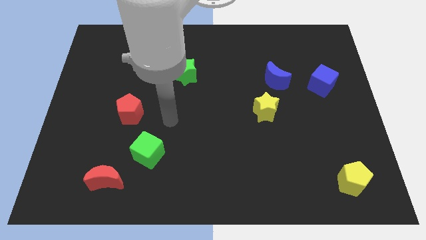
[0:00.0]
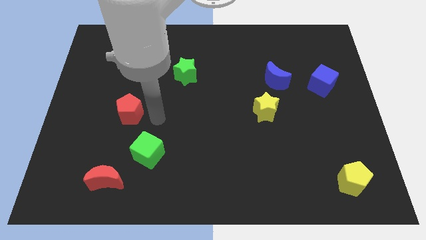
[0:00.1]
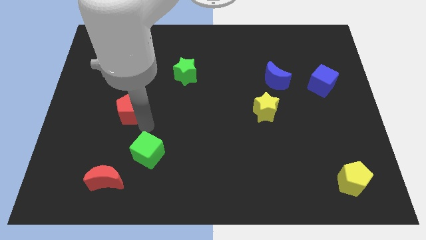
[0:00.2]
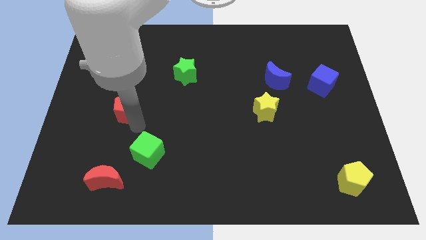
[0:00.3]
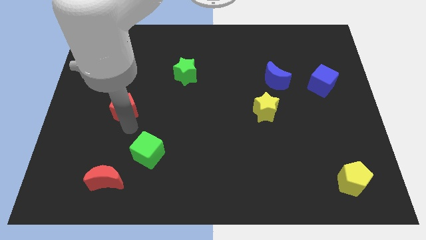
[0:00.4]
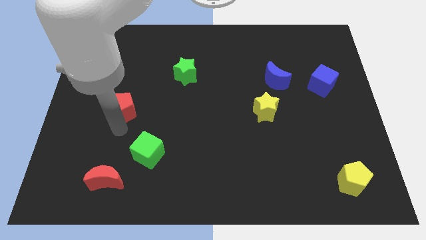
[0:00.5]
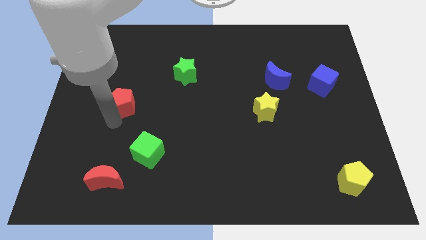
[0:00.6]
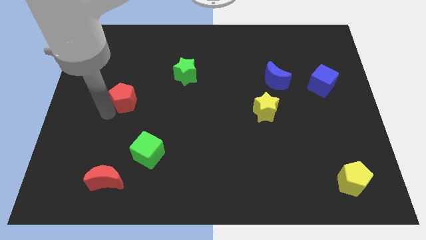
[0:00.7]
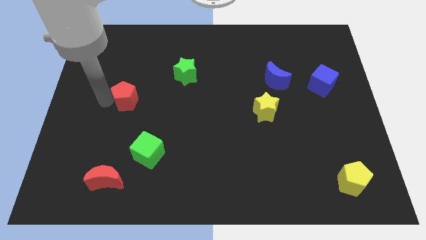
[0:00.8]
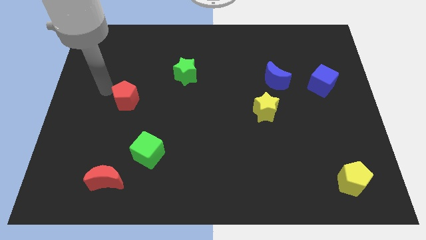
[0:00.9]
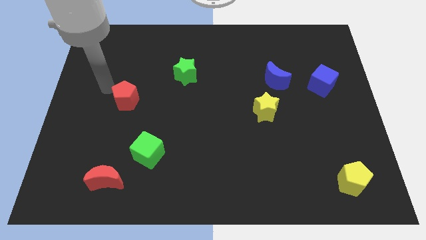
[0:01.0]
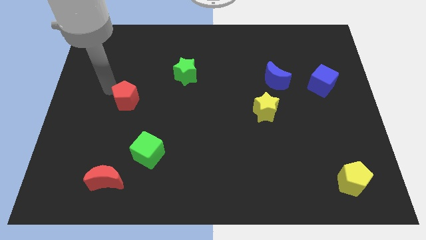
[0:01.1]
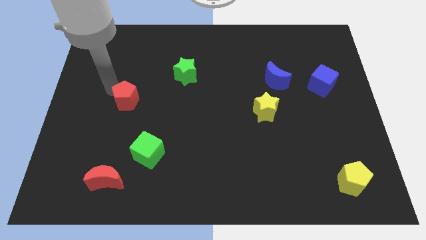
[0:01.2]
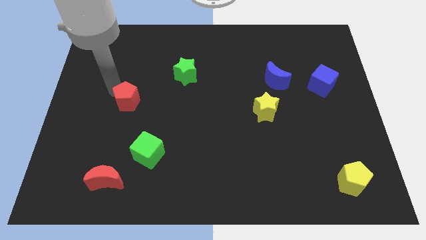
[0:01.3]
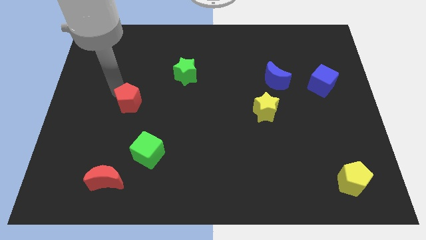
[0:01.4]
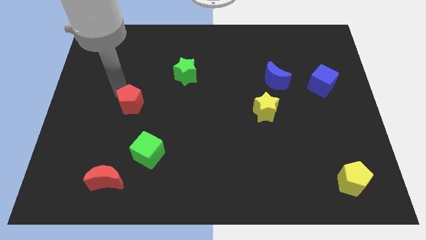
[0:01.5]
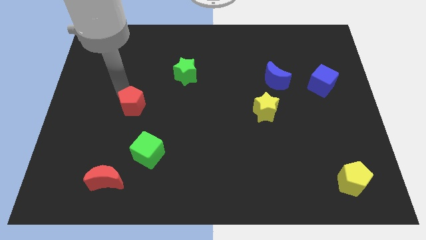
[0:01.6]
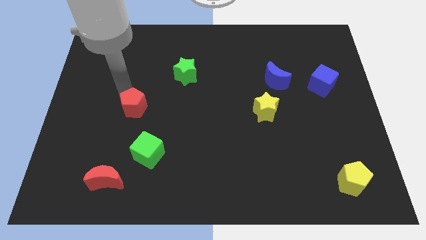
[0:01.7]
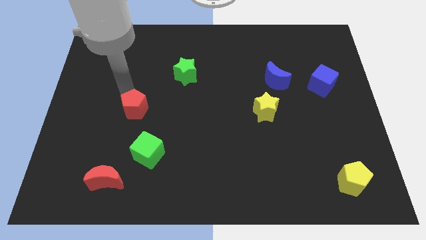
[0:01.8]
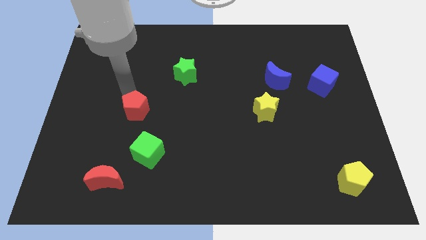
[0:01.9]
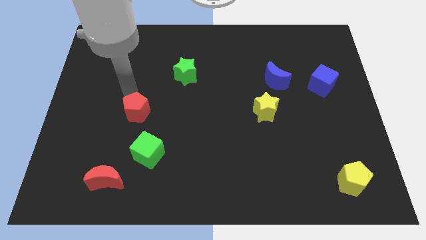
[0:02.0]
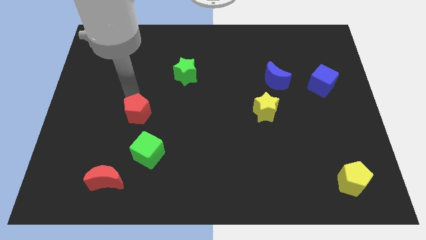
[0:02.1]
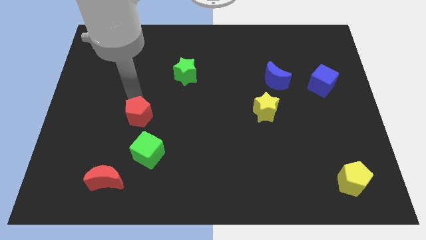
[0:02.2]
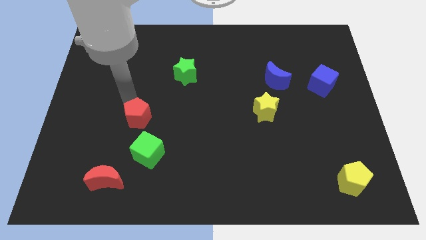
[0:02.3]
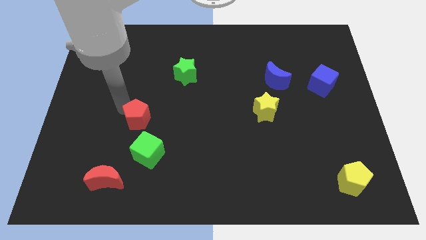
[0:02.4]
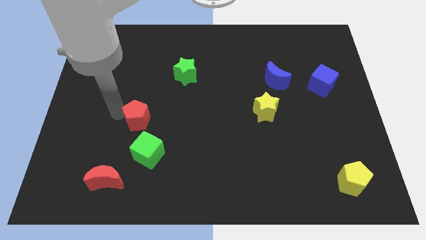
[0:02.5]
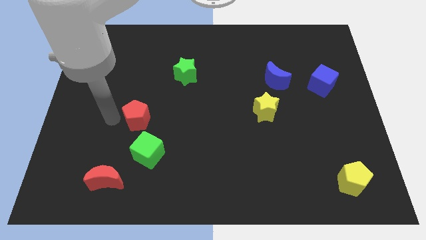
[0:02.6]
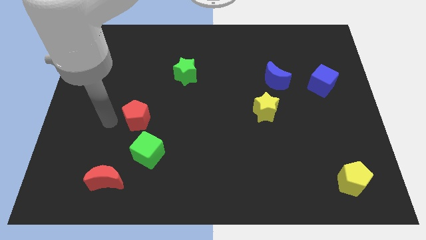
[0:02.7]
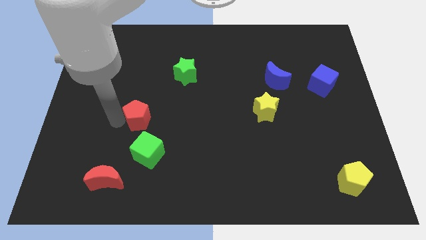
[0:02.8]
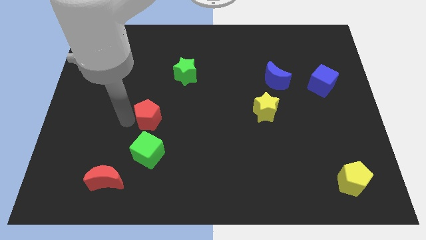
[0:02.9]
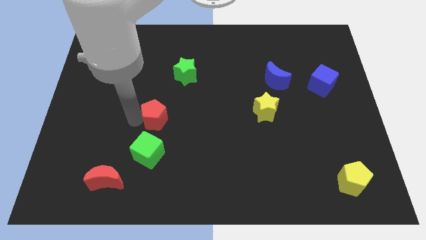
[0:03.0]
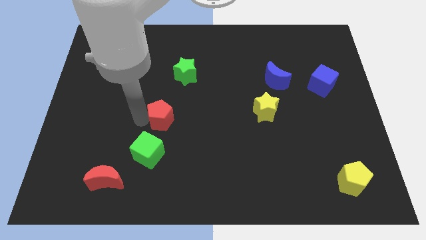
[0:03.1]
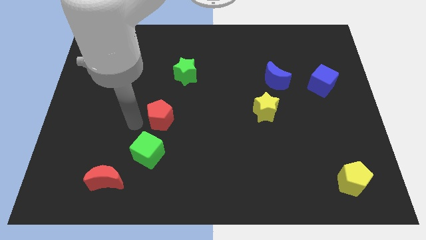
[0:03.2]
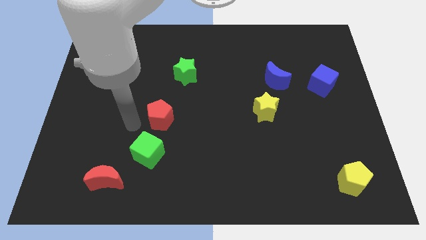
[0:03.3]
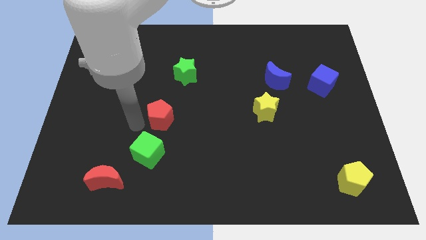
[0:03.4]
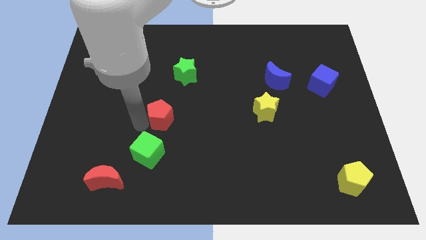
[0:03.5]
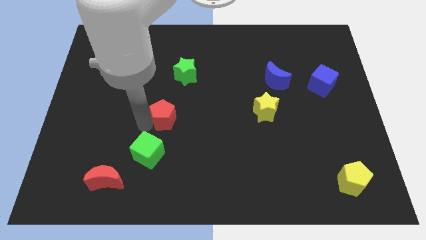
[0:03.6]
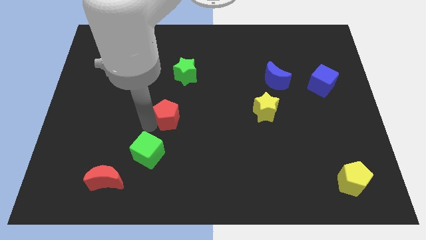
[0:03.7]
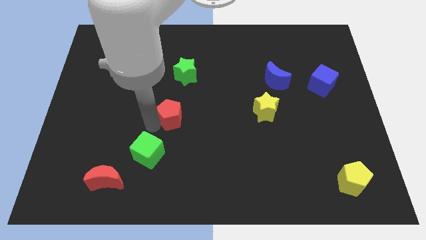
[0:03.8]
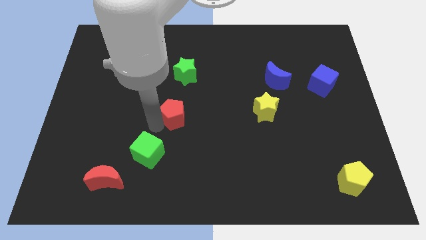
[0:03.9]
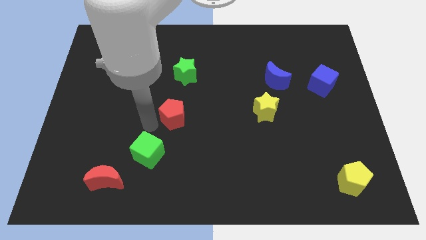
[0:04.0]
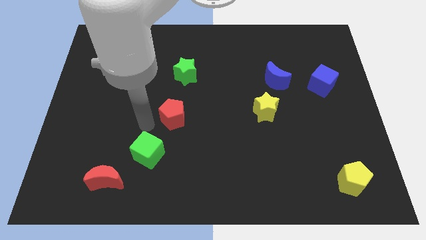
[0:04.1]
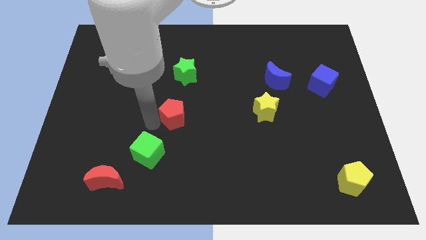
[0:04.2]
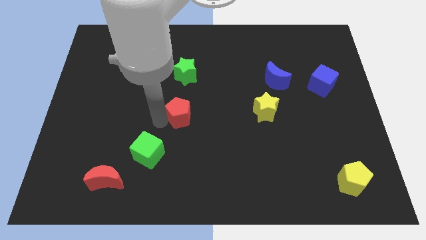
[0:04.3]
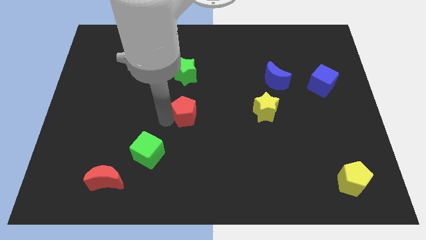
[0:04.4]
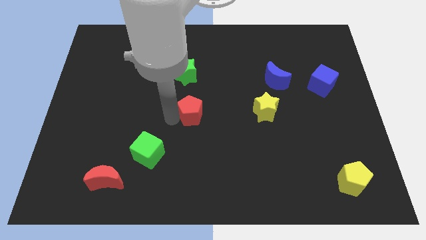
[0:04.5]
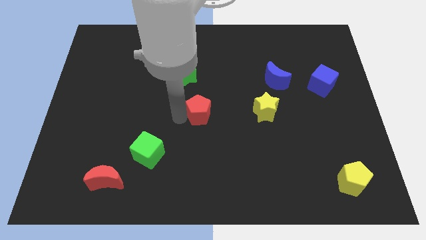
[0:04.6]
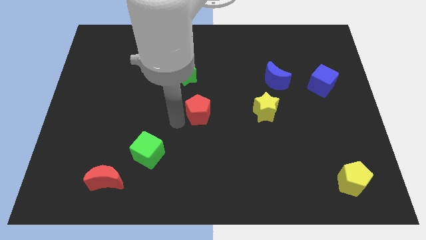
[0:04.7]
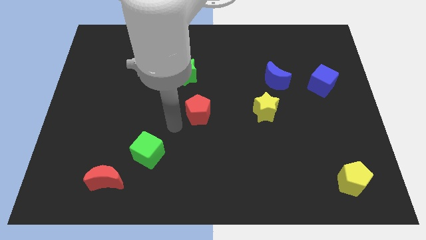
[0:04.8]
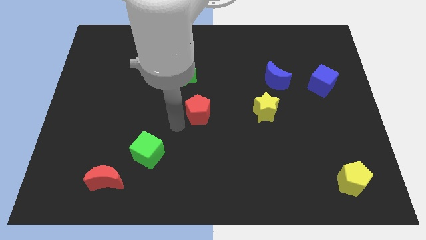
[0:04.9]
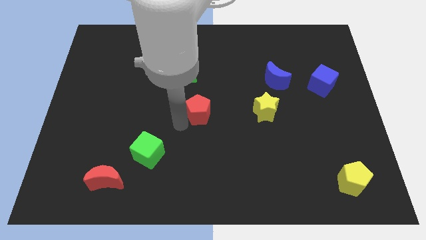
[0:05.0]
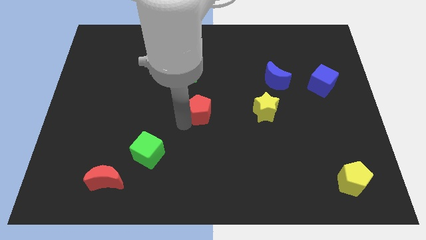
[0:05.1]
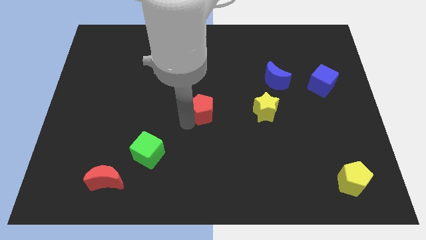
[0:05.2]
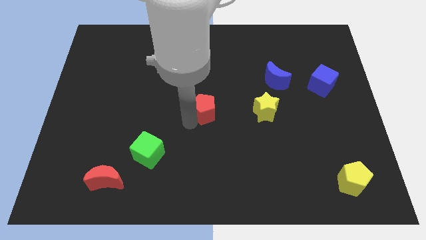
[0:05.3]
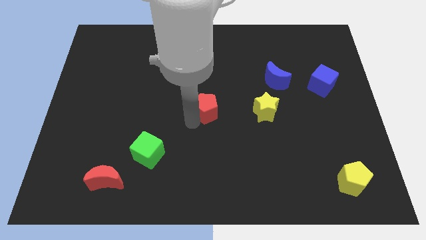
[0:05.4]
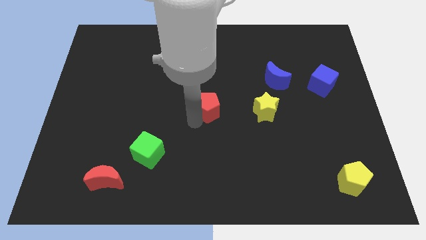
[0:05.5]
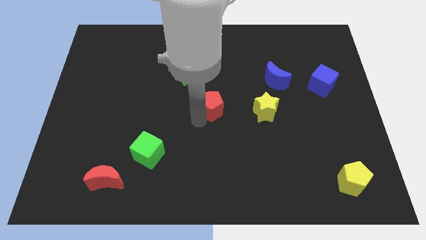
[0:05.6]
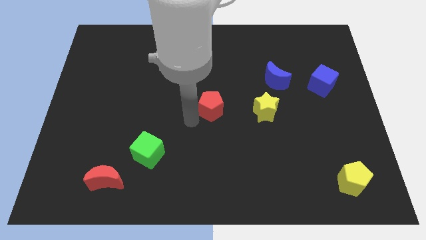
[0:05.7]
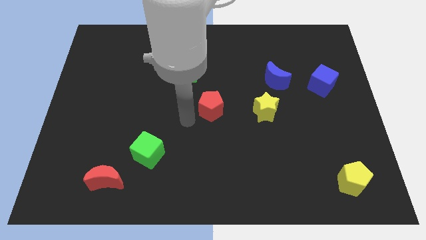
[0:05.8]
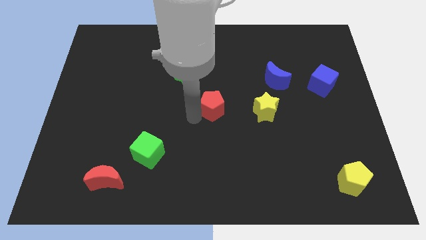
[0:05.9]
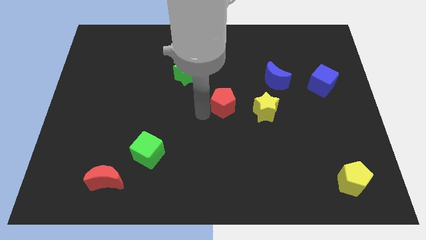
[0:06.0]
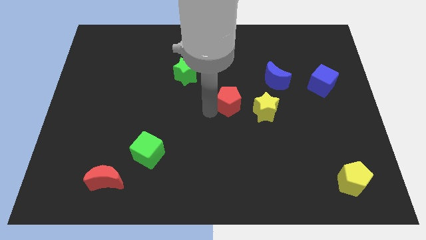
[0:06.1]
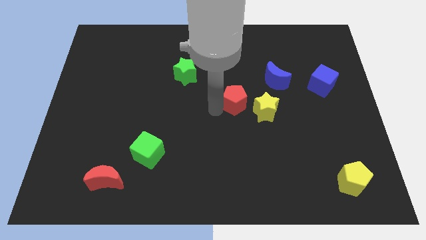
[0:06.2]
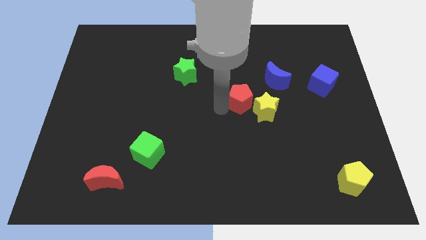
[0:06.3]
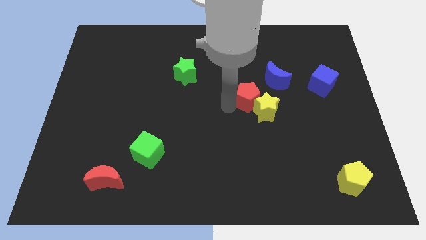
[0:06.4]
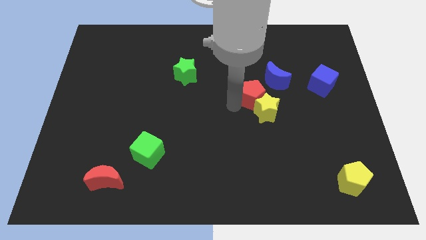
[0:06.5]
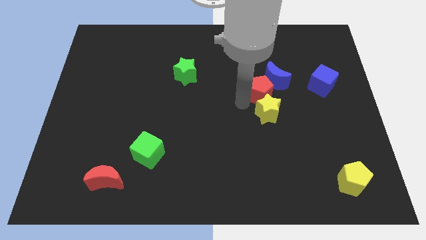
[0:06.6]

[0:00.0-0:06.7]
move the red pentagon next to the blue moon

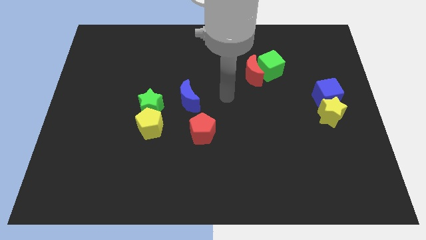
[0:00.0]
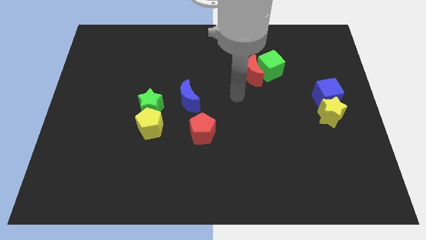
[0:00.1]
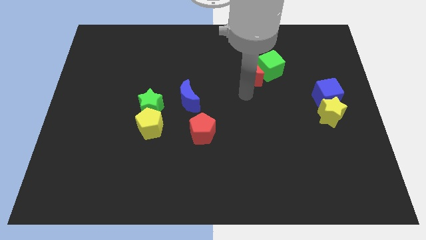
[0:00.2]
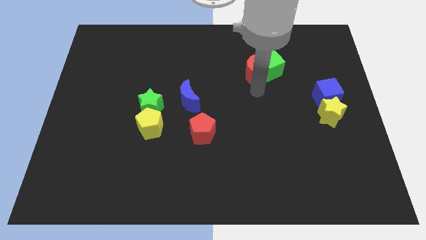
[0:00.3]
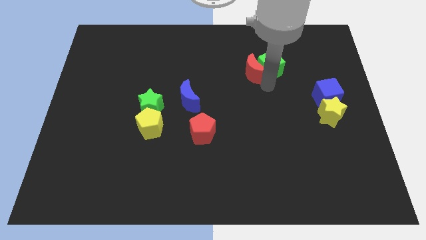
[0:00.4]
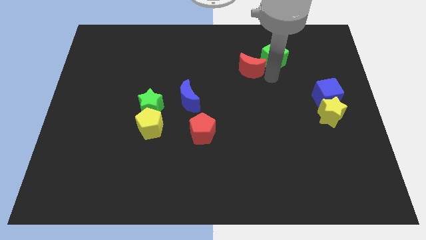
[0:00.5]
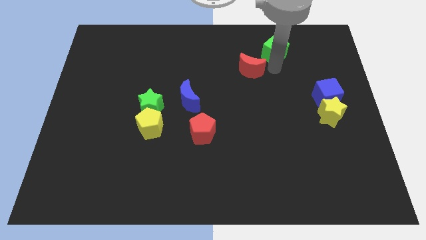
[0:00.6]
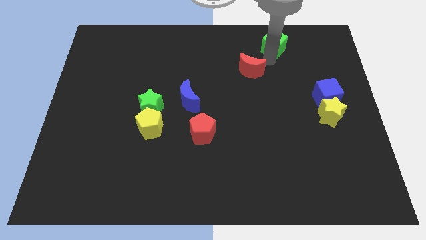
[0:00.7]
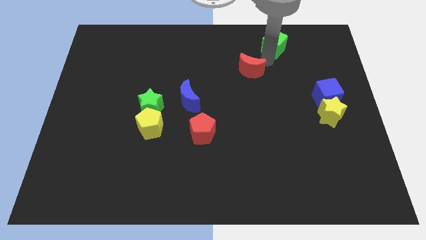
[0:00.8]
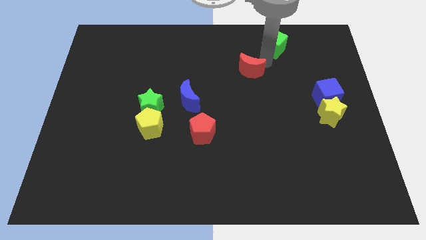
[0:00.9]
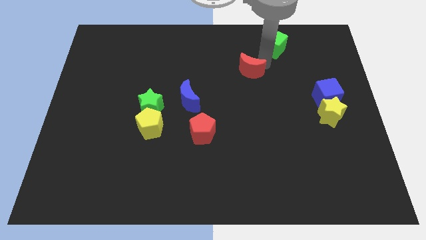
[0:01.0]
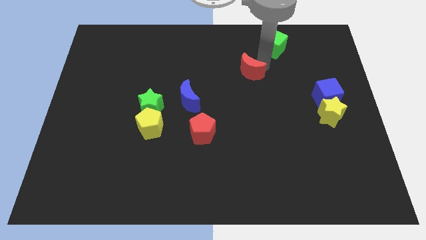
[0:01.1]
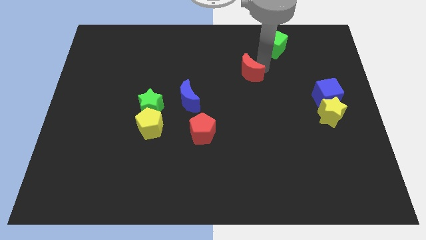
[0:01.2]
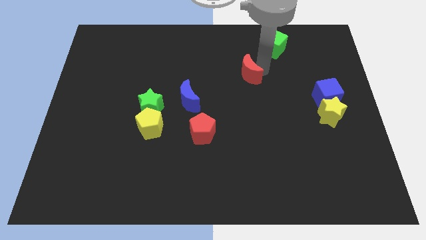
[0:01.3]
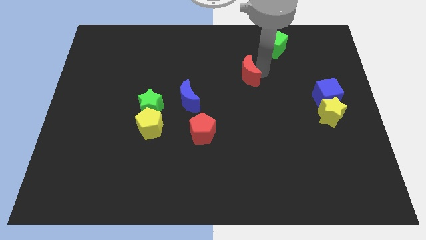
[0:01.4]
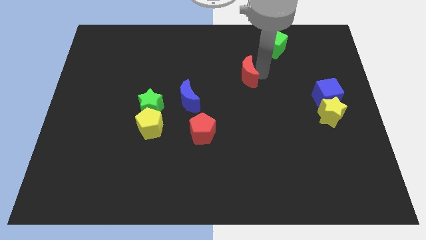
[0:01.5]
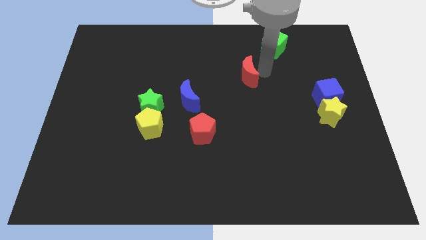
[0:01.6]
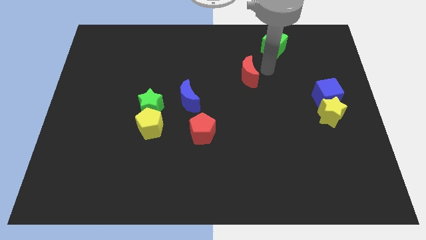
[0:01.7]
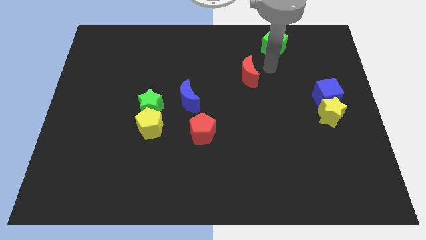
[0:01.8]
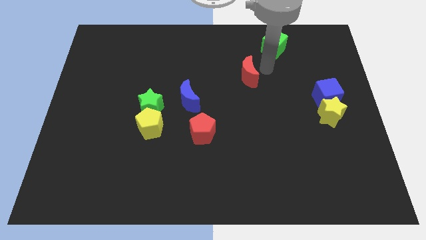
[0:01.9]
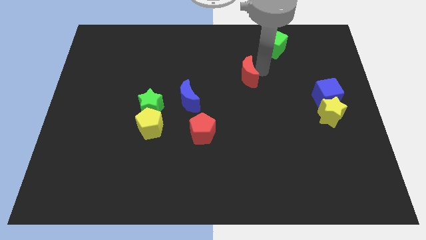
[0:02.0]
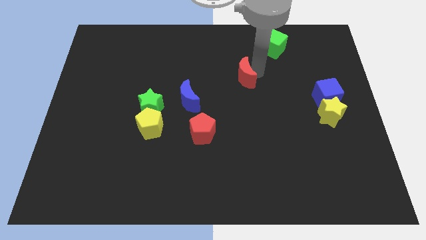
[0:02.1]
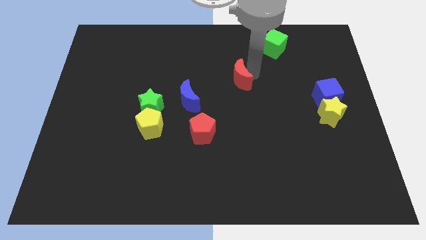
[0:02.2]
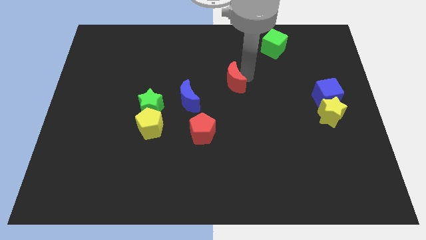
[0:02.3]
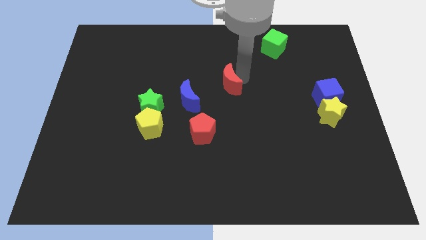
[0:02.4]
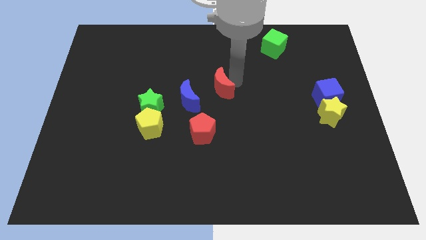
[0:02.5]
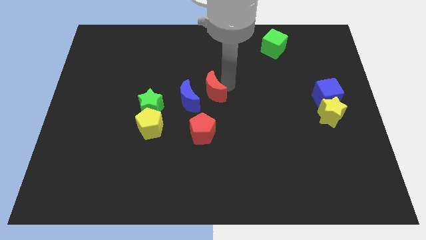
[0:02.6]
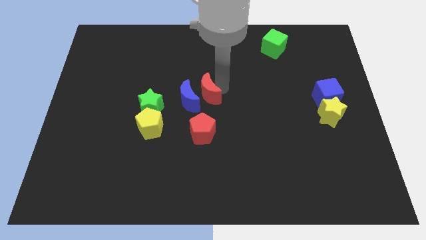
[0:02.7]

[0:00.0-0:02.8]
move the red moon towards the blue moon
